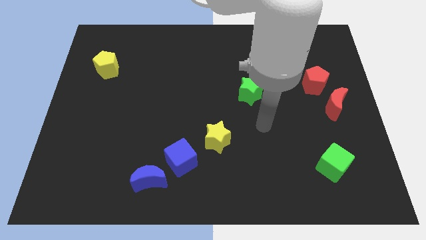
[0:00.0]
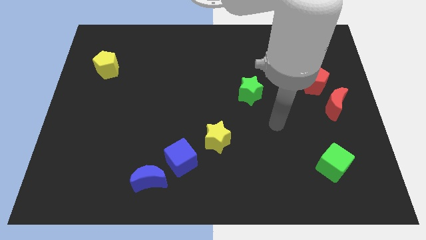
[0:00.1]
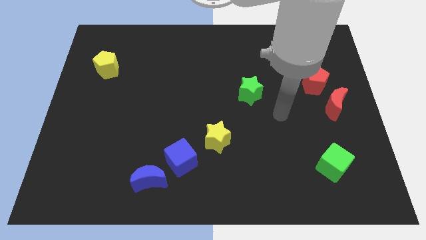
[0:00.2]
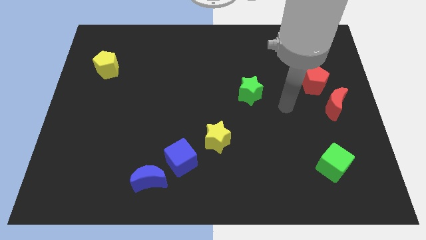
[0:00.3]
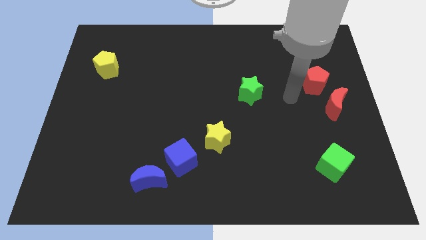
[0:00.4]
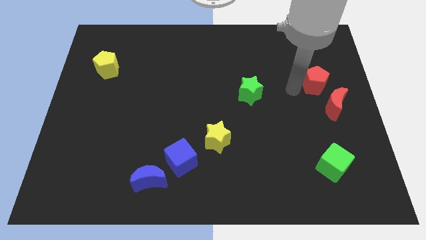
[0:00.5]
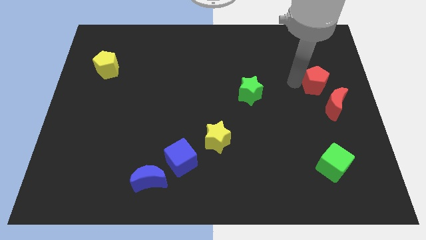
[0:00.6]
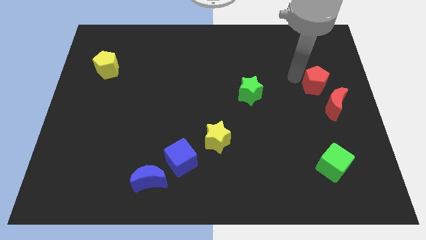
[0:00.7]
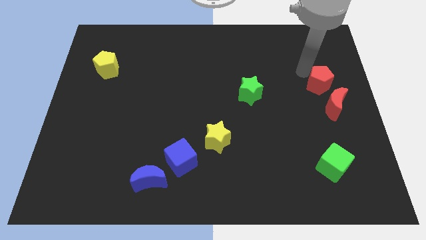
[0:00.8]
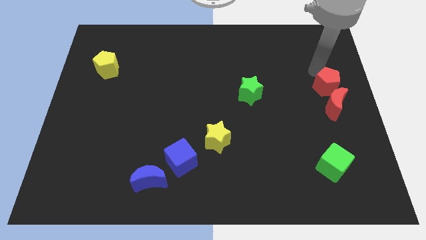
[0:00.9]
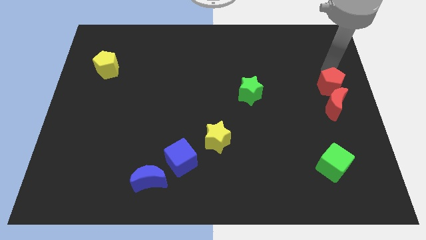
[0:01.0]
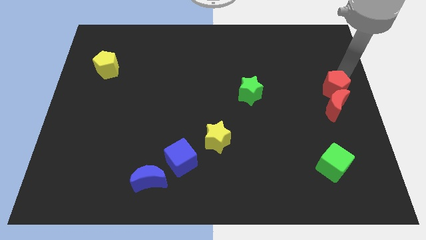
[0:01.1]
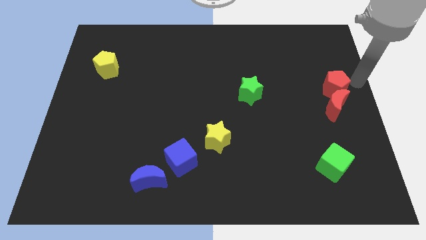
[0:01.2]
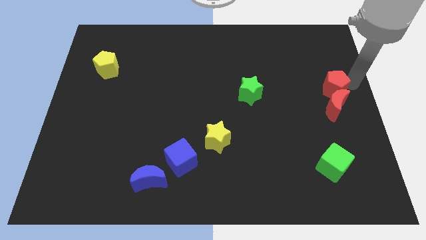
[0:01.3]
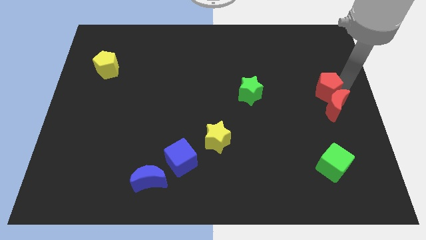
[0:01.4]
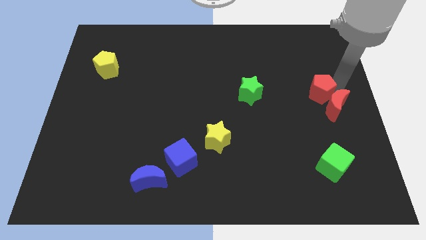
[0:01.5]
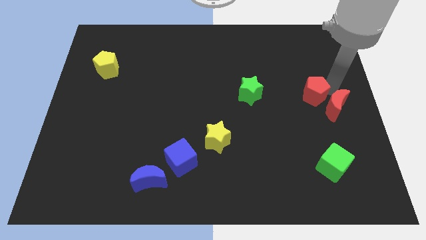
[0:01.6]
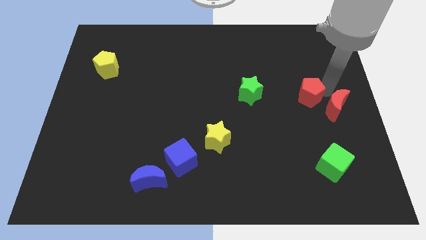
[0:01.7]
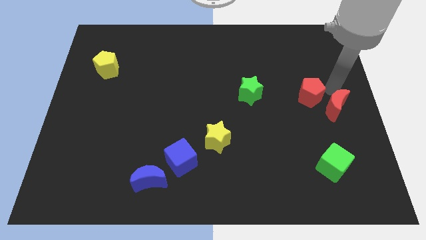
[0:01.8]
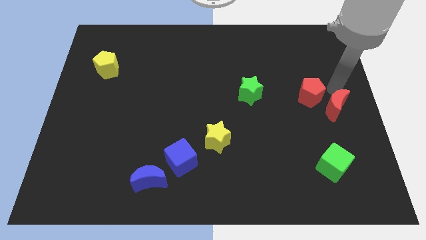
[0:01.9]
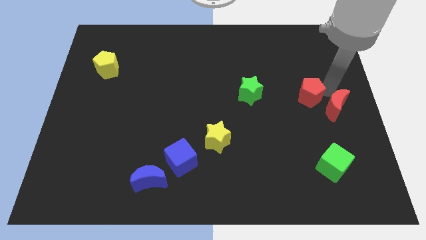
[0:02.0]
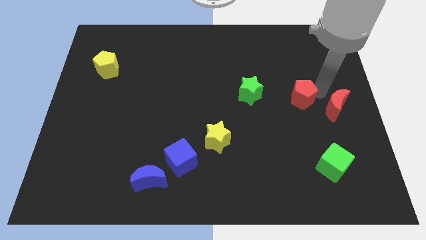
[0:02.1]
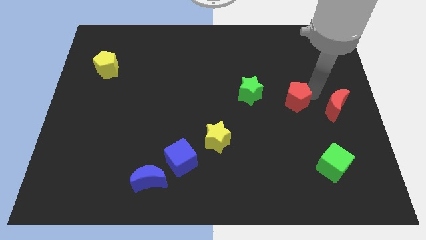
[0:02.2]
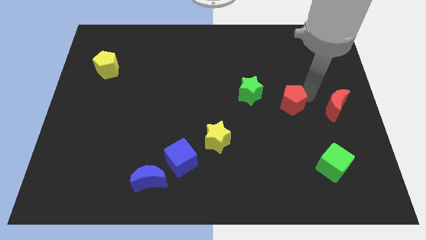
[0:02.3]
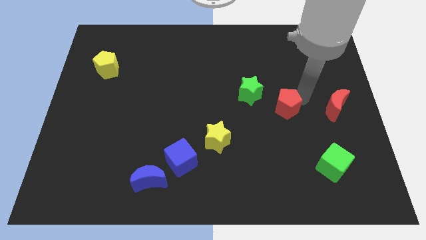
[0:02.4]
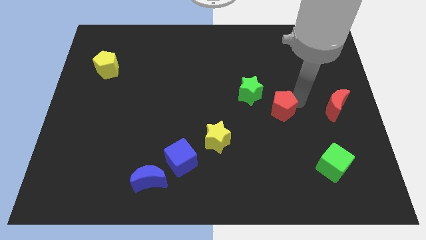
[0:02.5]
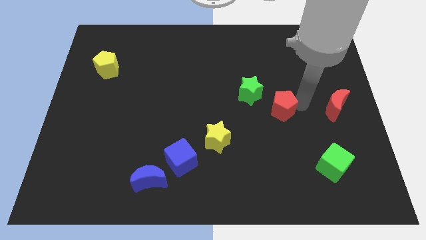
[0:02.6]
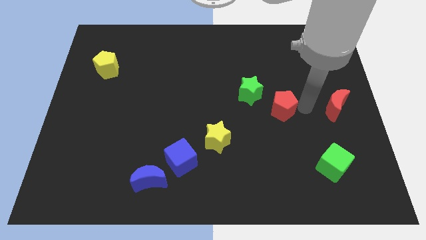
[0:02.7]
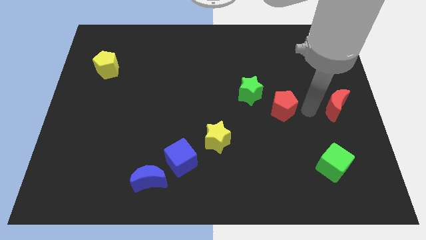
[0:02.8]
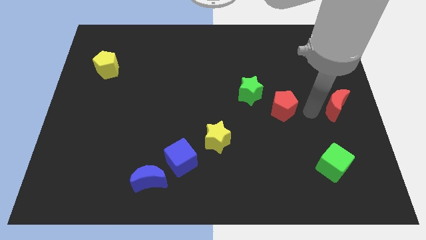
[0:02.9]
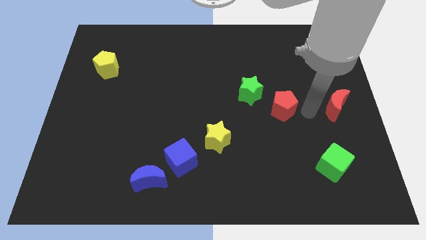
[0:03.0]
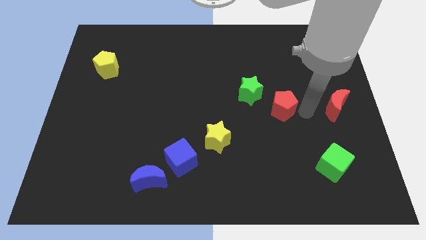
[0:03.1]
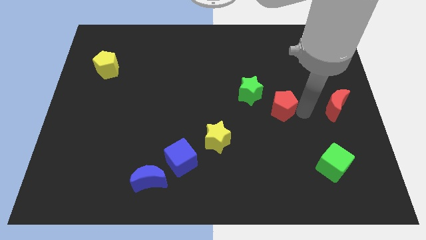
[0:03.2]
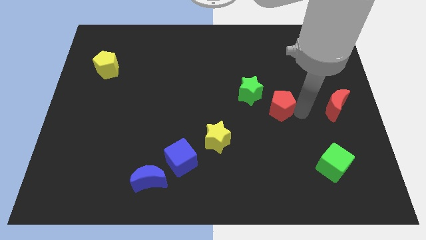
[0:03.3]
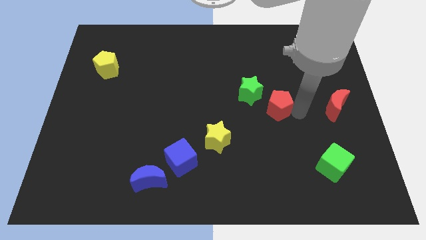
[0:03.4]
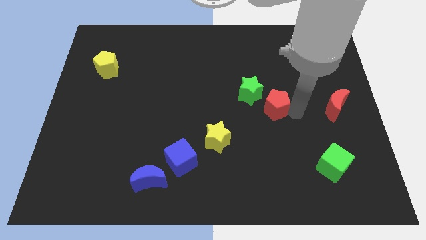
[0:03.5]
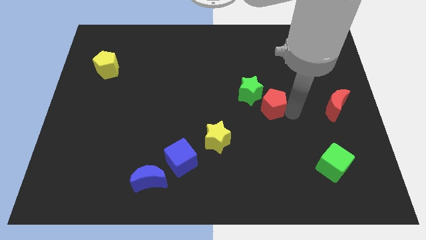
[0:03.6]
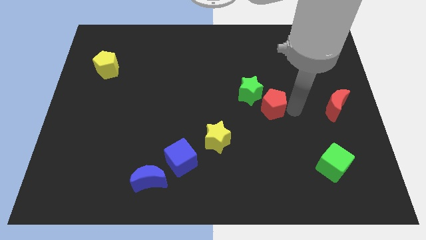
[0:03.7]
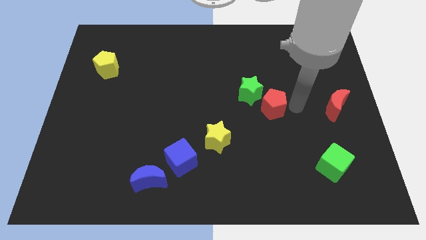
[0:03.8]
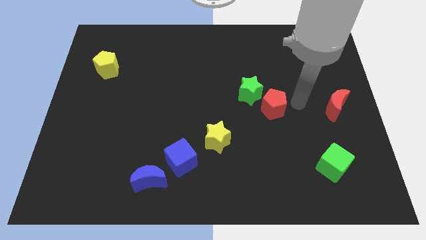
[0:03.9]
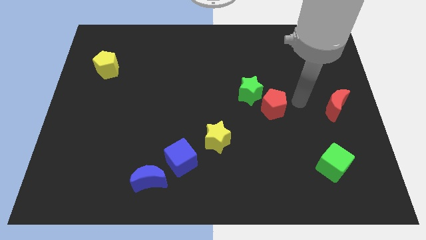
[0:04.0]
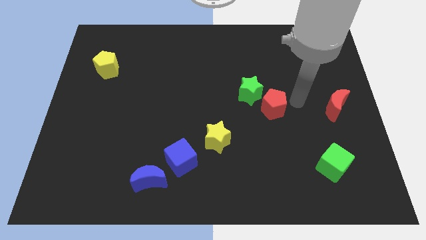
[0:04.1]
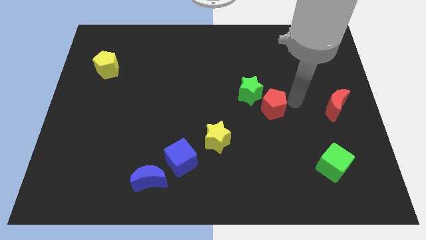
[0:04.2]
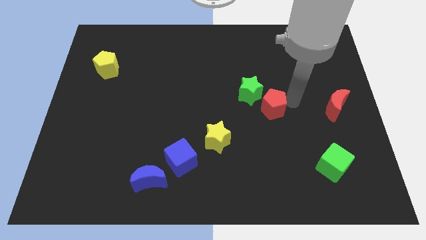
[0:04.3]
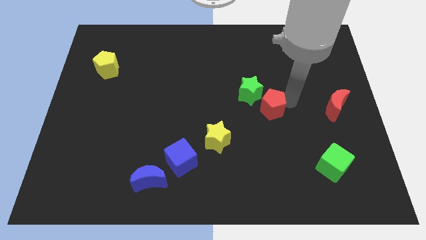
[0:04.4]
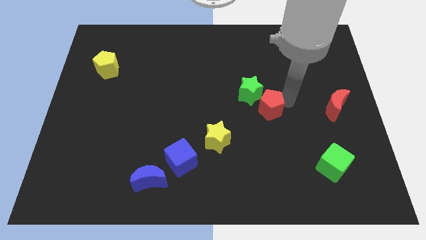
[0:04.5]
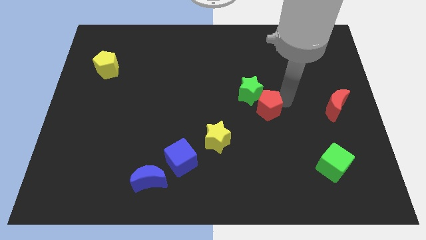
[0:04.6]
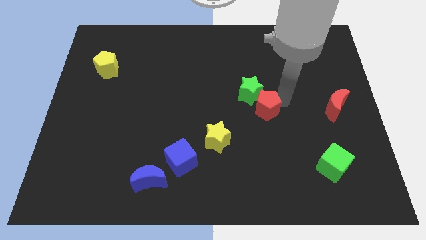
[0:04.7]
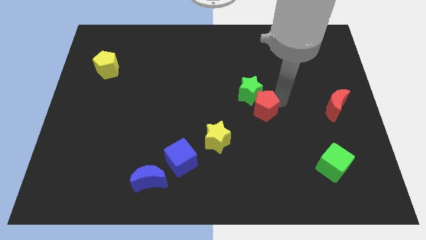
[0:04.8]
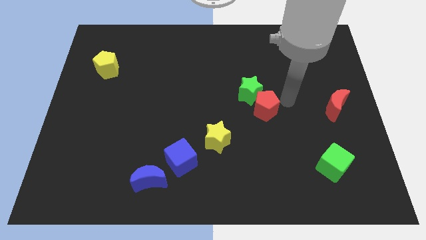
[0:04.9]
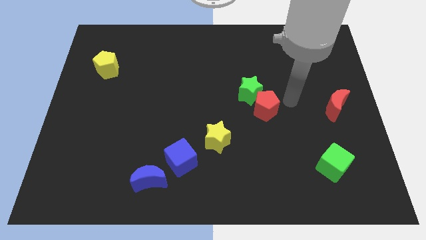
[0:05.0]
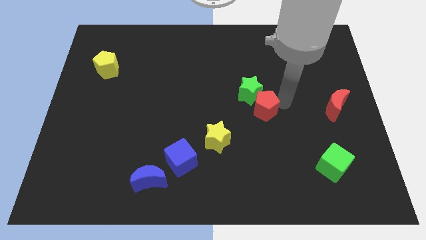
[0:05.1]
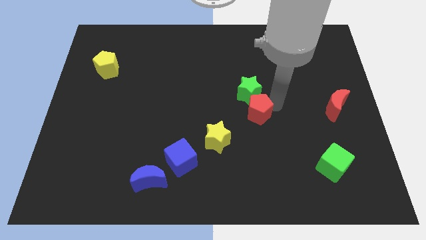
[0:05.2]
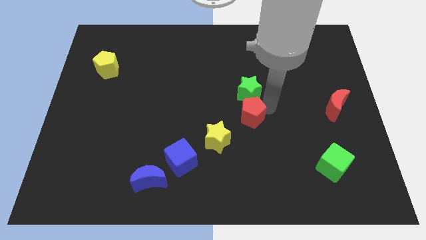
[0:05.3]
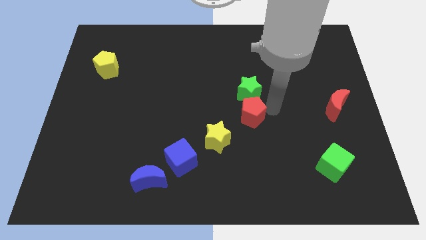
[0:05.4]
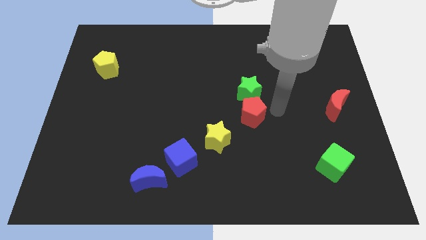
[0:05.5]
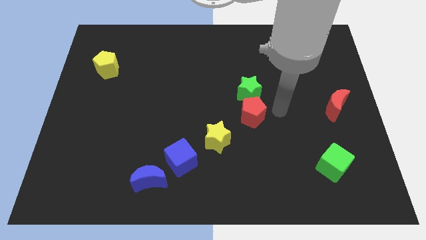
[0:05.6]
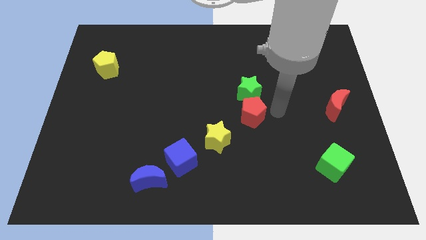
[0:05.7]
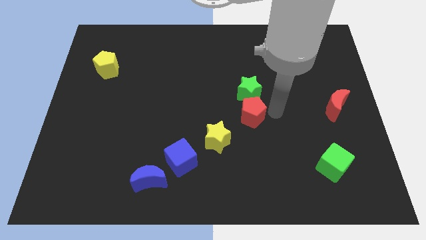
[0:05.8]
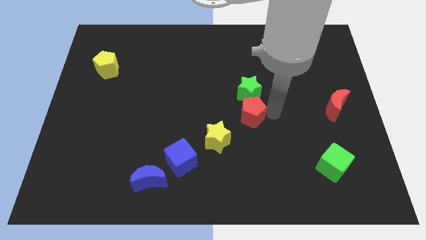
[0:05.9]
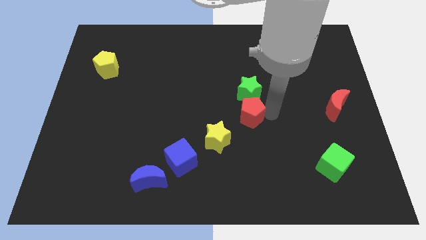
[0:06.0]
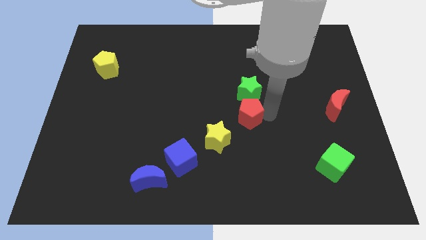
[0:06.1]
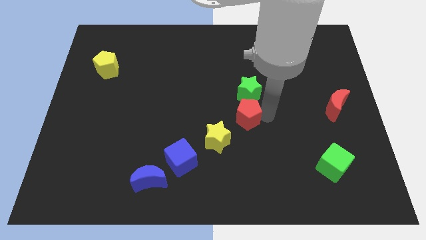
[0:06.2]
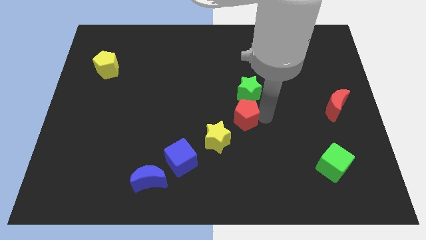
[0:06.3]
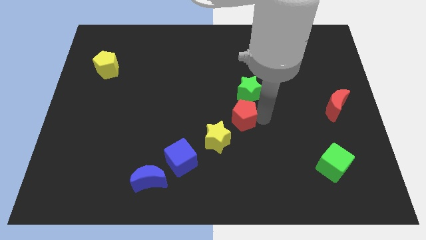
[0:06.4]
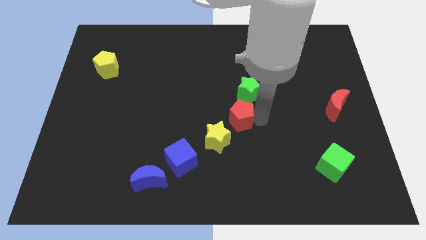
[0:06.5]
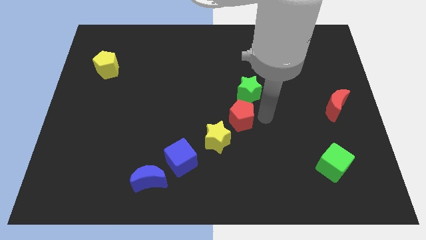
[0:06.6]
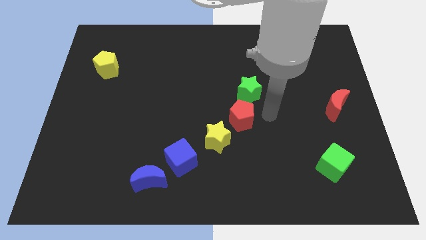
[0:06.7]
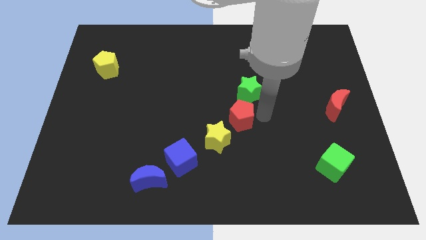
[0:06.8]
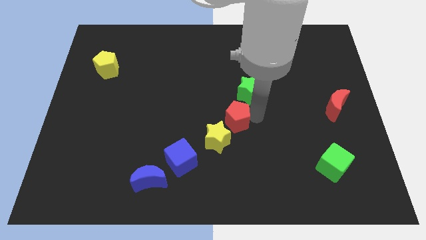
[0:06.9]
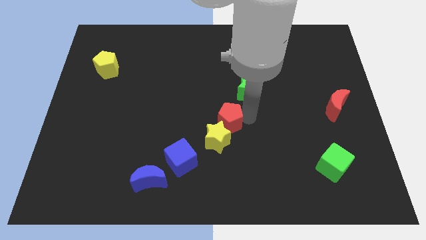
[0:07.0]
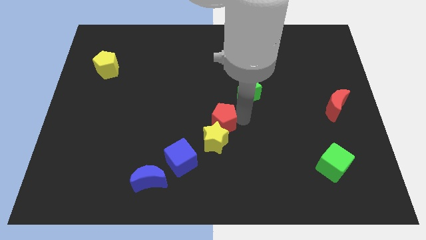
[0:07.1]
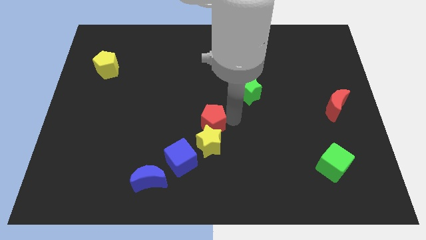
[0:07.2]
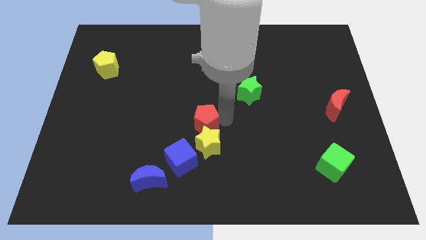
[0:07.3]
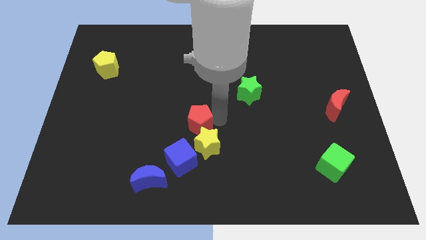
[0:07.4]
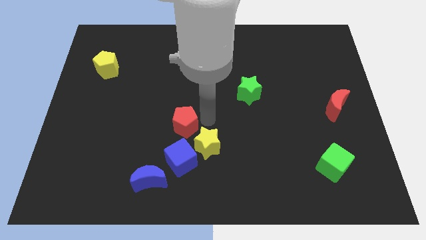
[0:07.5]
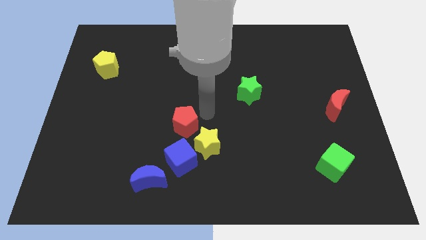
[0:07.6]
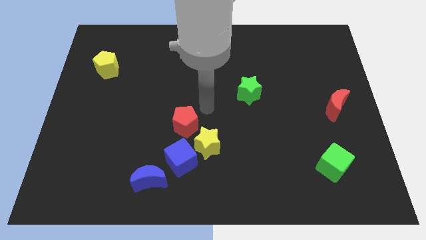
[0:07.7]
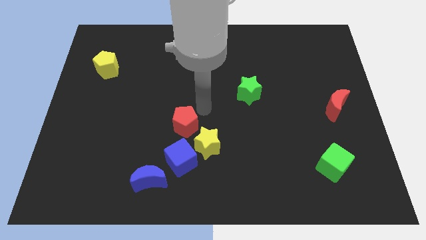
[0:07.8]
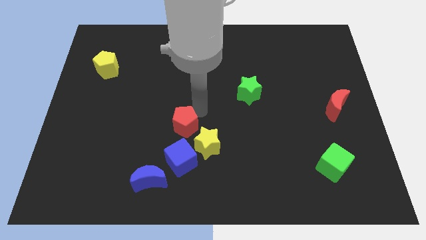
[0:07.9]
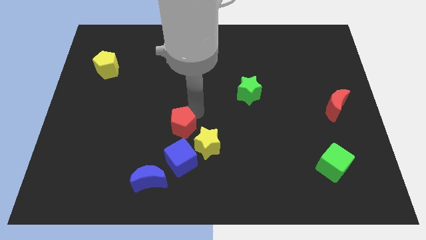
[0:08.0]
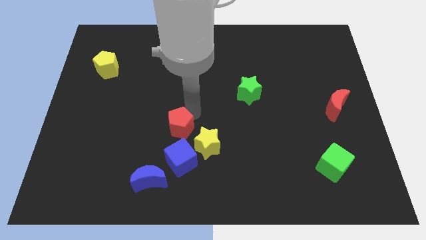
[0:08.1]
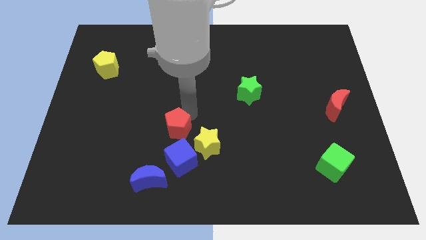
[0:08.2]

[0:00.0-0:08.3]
move the red pentagon to the left of the yellow star
